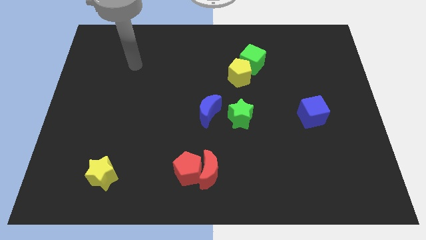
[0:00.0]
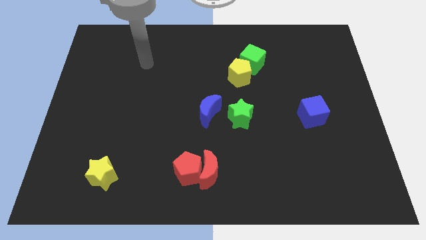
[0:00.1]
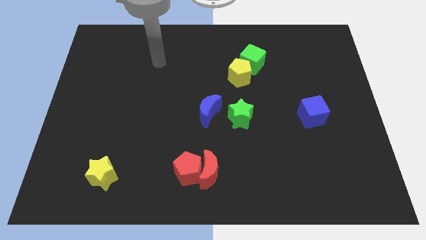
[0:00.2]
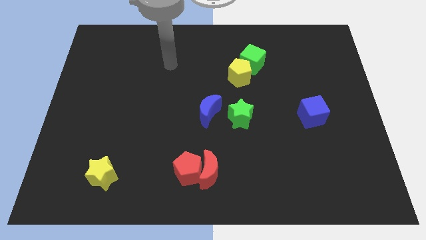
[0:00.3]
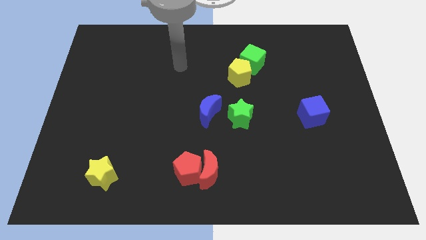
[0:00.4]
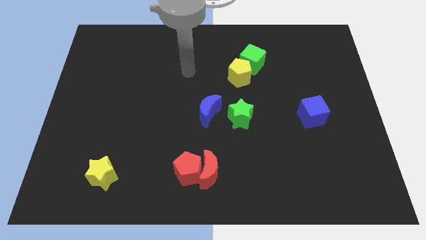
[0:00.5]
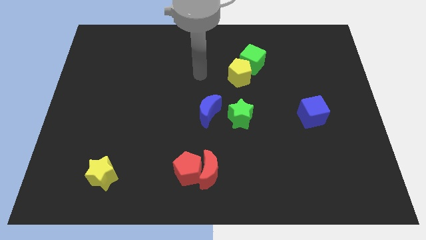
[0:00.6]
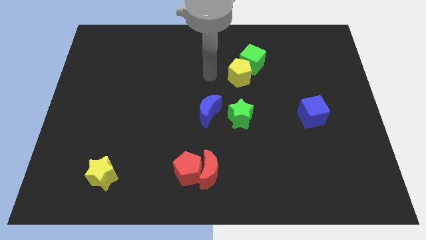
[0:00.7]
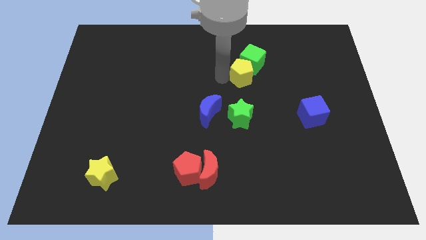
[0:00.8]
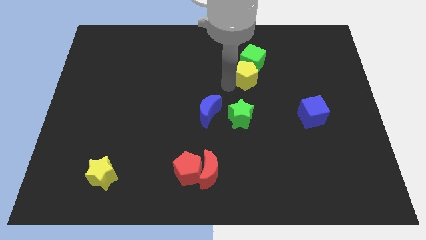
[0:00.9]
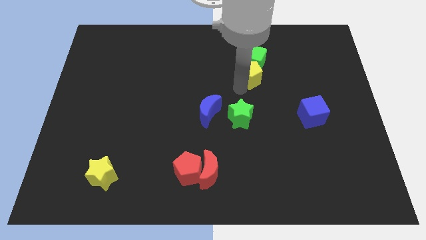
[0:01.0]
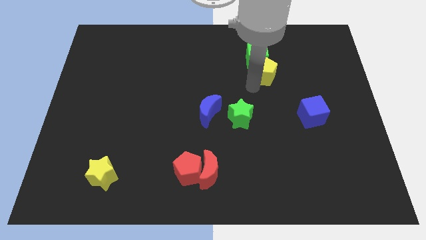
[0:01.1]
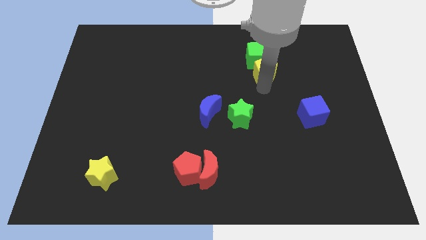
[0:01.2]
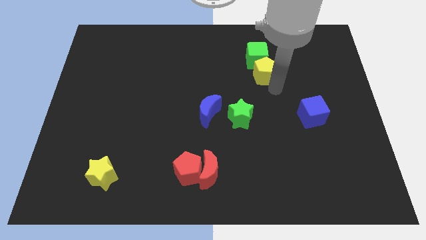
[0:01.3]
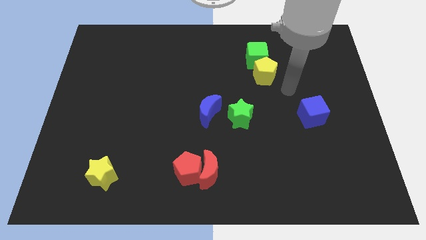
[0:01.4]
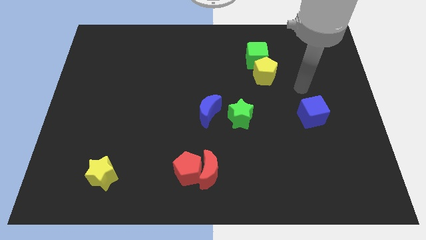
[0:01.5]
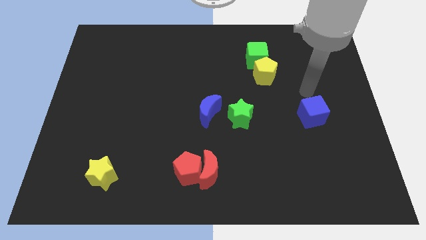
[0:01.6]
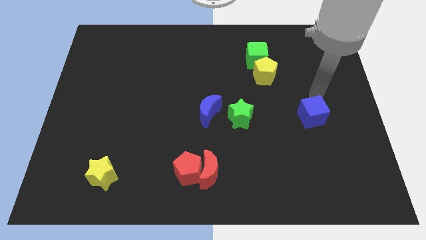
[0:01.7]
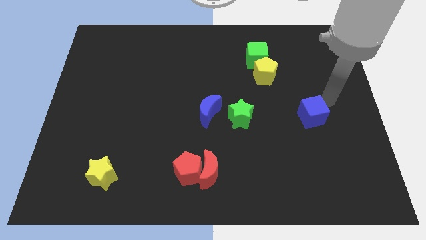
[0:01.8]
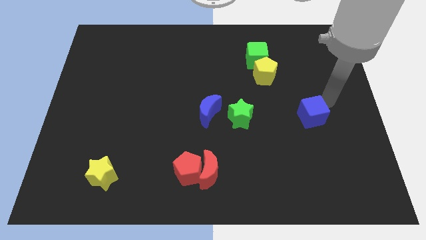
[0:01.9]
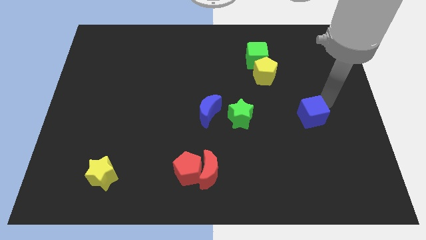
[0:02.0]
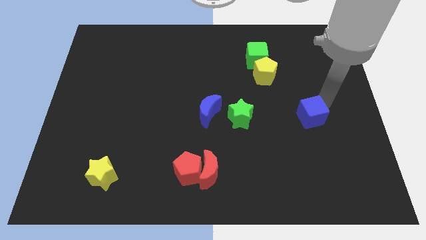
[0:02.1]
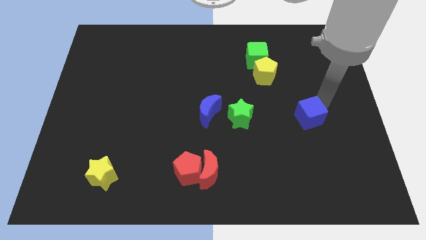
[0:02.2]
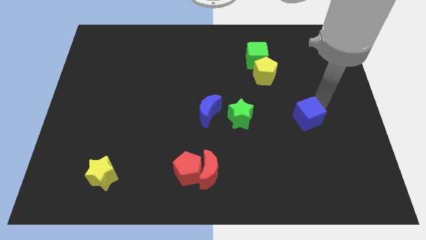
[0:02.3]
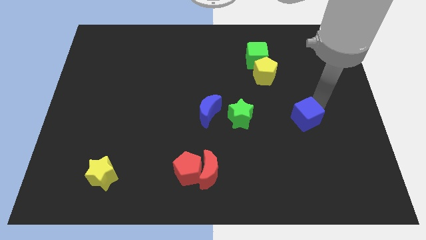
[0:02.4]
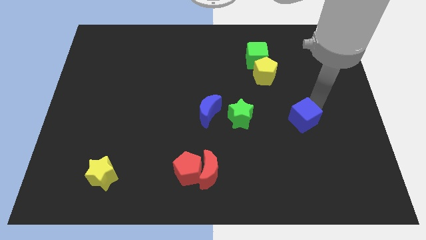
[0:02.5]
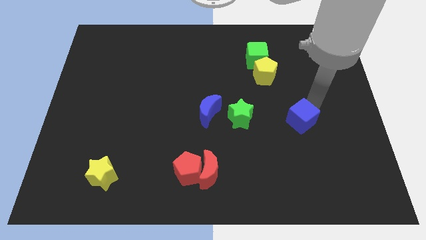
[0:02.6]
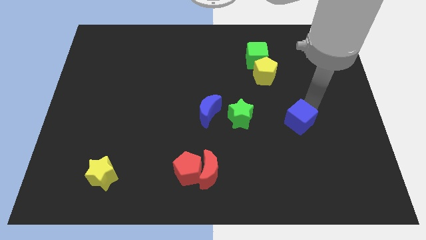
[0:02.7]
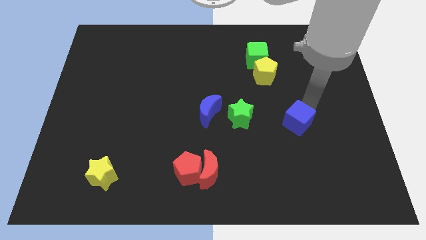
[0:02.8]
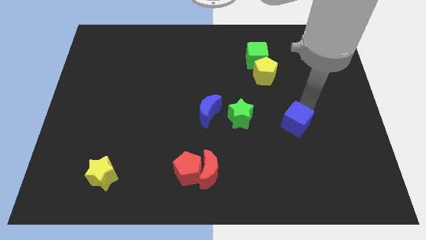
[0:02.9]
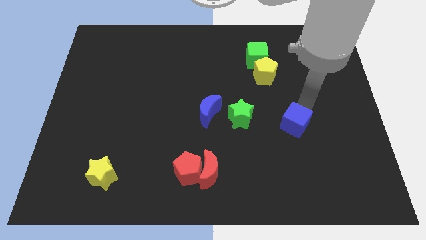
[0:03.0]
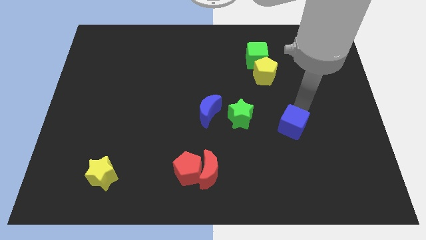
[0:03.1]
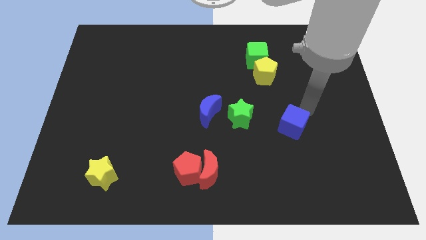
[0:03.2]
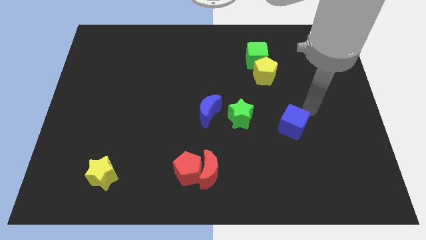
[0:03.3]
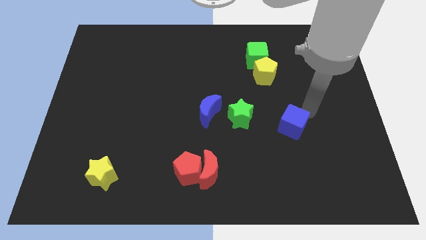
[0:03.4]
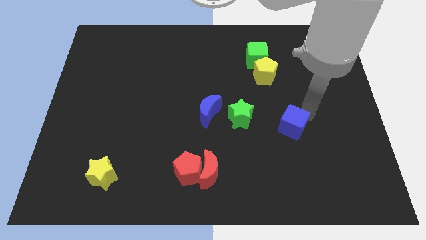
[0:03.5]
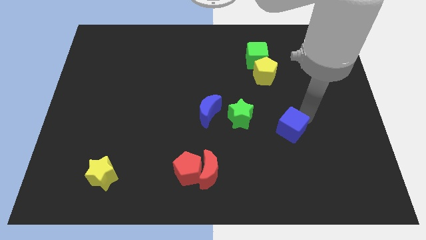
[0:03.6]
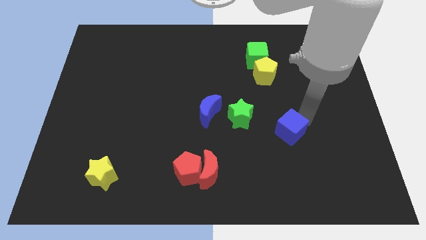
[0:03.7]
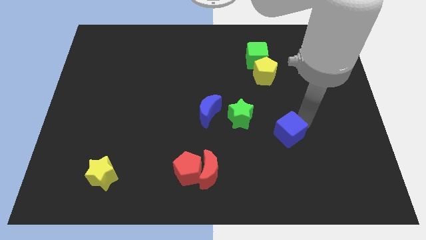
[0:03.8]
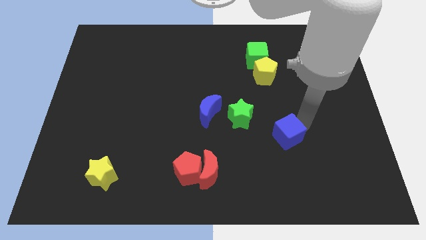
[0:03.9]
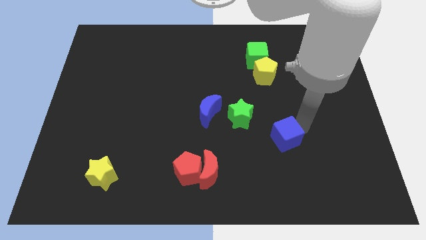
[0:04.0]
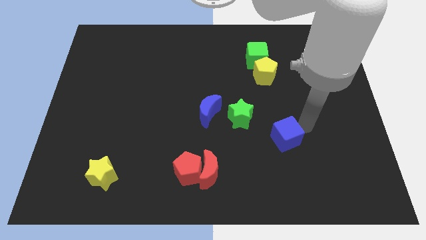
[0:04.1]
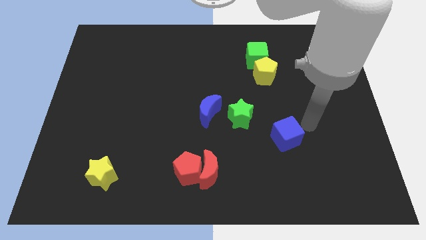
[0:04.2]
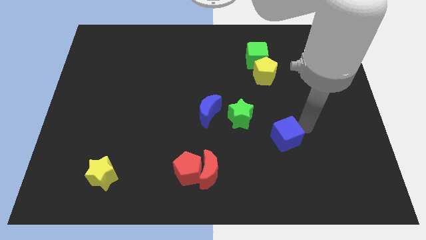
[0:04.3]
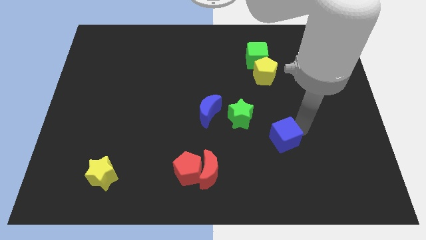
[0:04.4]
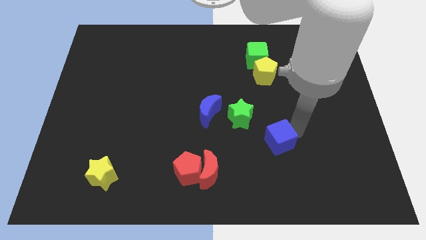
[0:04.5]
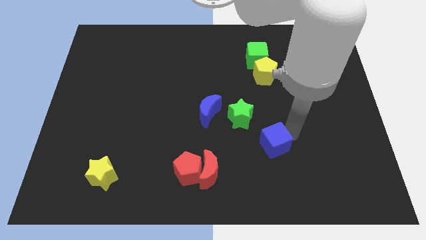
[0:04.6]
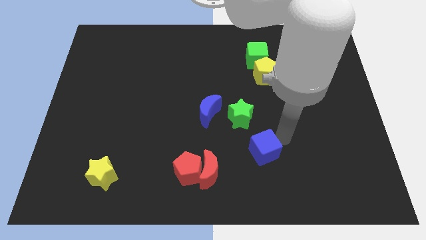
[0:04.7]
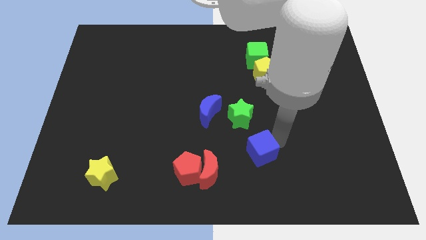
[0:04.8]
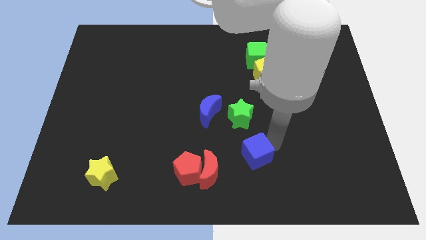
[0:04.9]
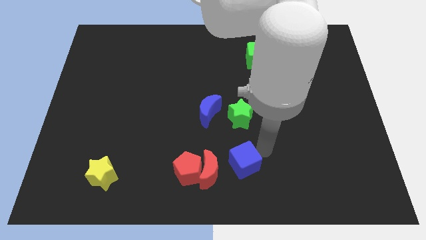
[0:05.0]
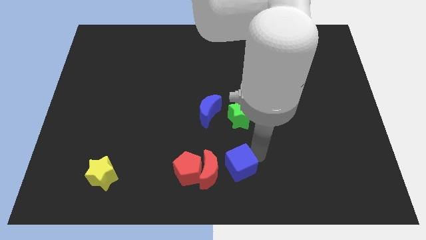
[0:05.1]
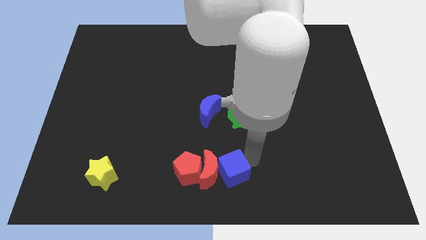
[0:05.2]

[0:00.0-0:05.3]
push the blue cube towards the red moon

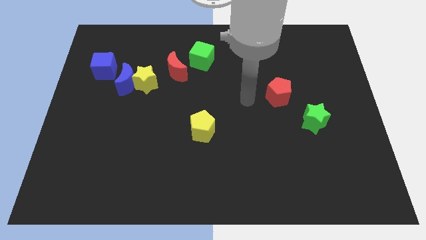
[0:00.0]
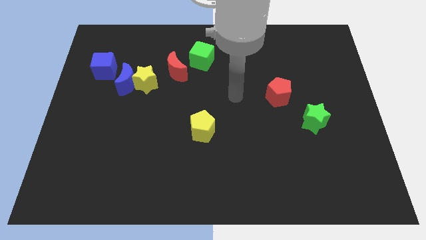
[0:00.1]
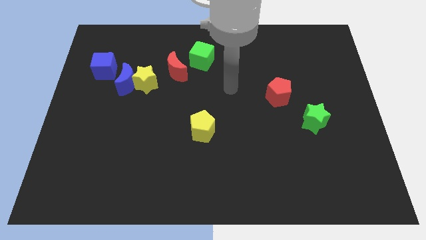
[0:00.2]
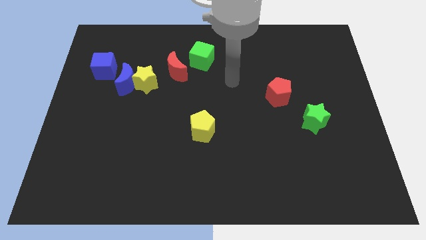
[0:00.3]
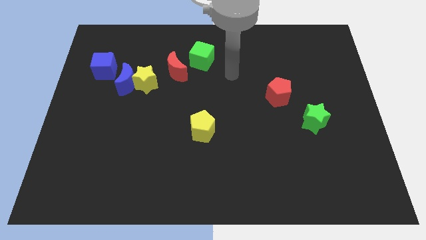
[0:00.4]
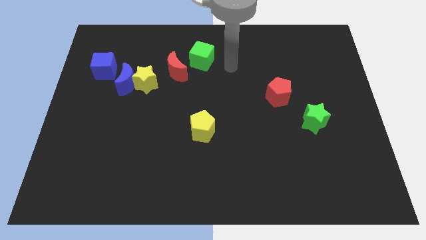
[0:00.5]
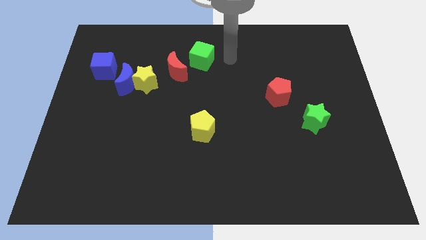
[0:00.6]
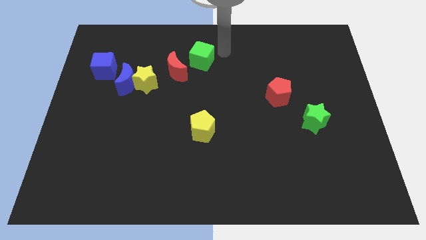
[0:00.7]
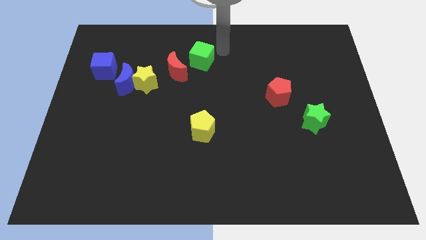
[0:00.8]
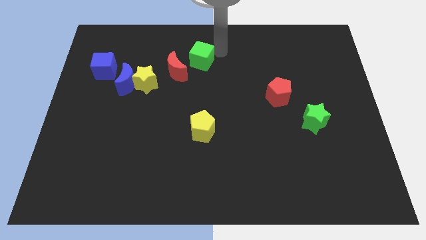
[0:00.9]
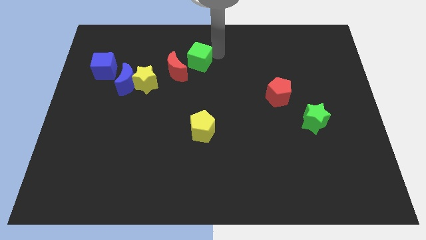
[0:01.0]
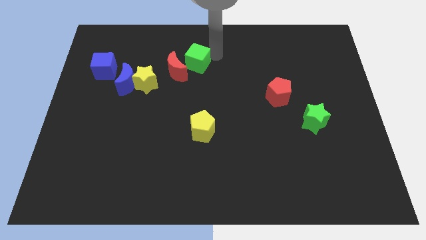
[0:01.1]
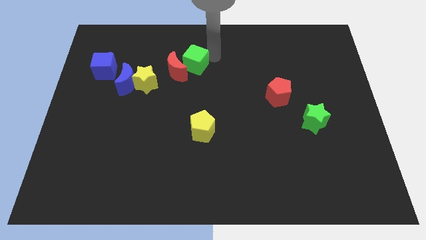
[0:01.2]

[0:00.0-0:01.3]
push the green cube to the red moon
